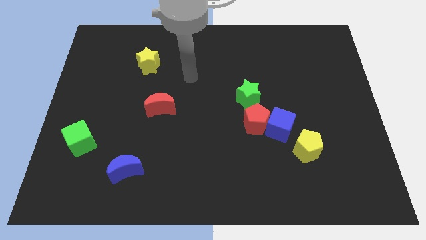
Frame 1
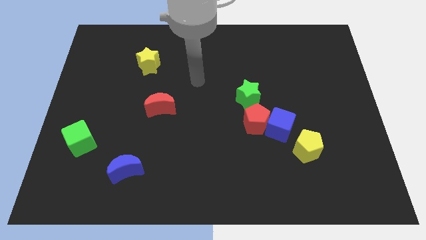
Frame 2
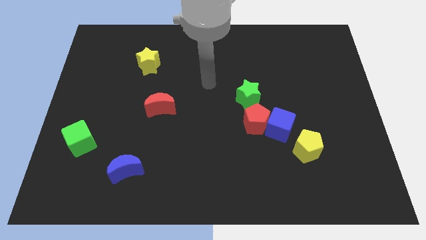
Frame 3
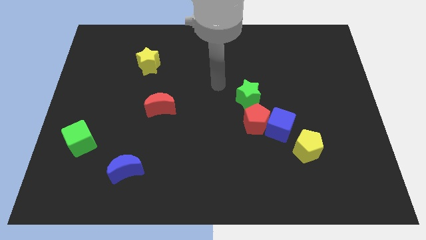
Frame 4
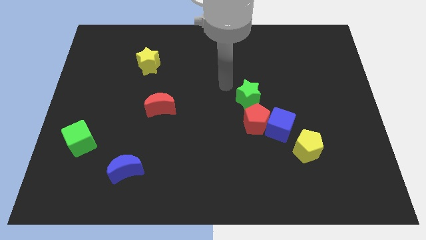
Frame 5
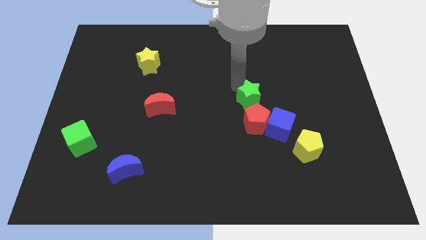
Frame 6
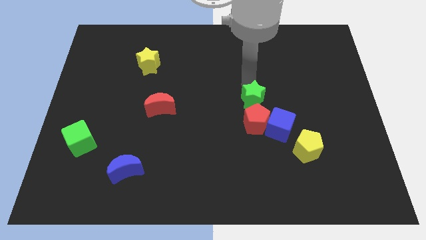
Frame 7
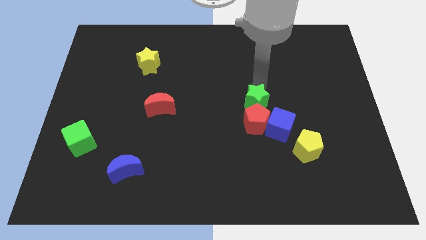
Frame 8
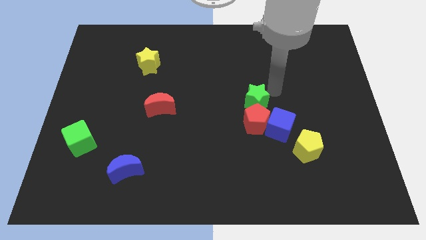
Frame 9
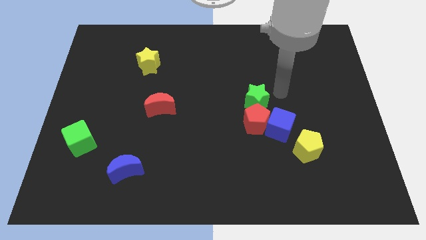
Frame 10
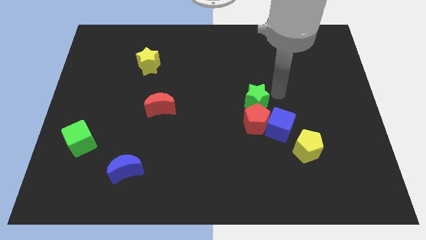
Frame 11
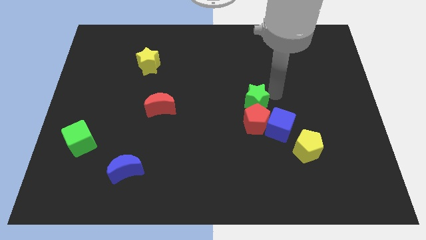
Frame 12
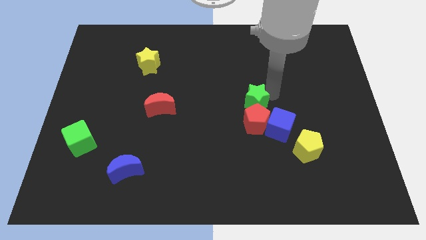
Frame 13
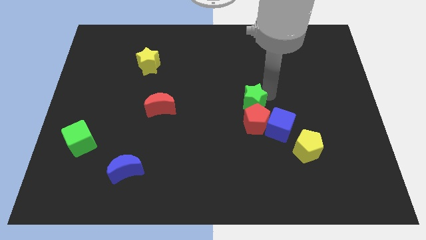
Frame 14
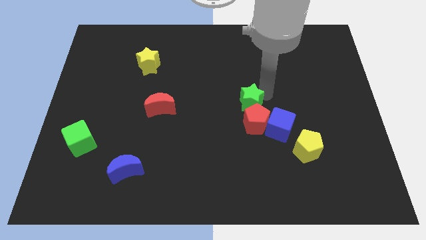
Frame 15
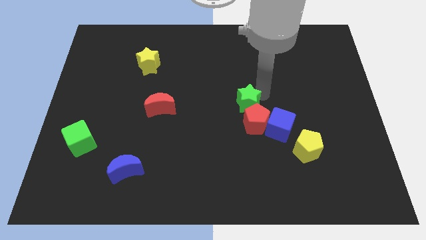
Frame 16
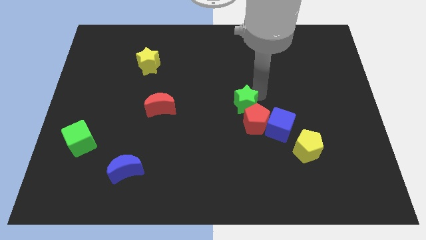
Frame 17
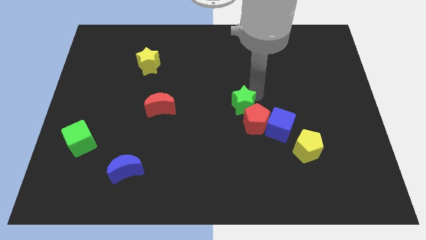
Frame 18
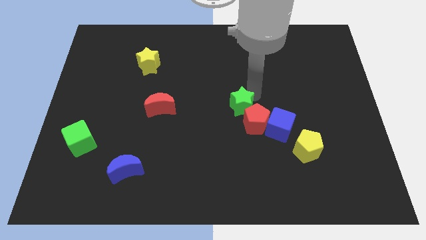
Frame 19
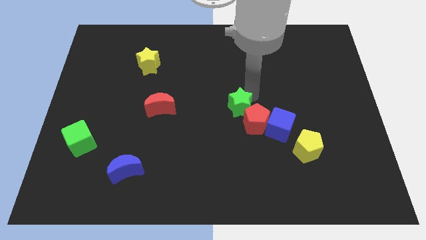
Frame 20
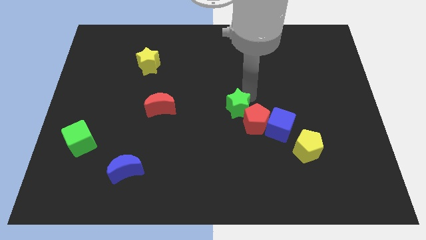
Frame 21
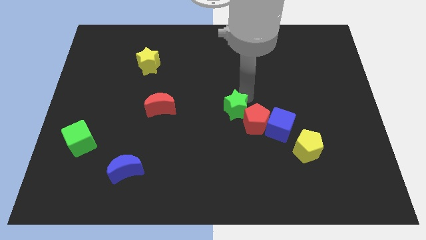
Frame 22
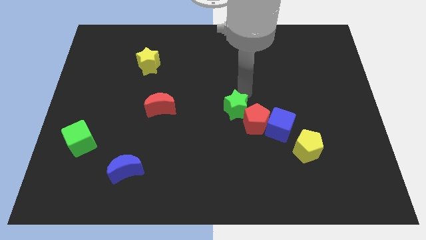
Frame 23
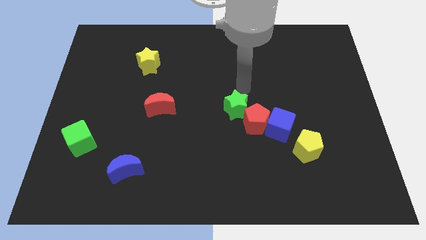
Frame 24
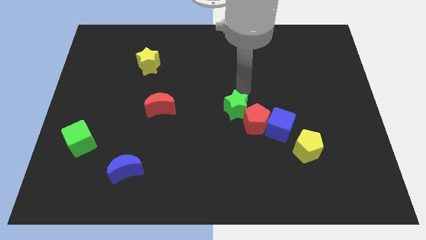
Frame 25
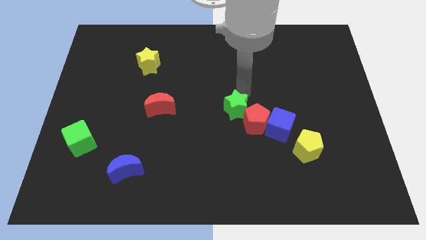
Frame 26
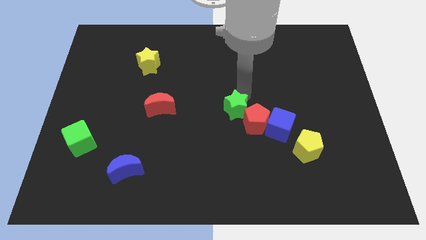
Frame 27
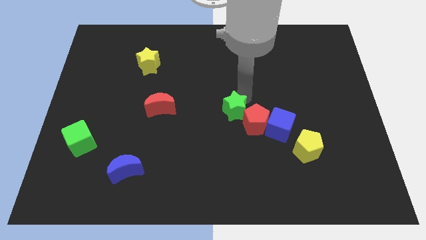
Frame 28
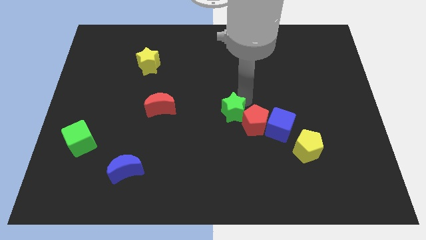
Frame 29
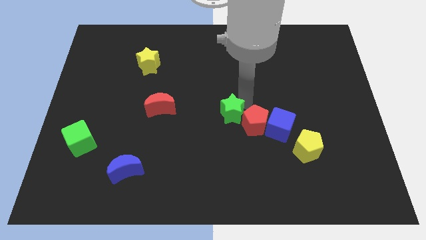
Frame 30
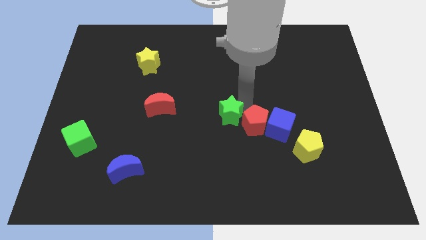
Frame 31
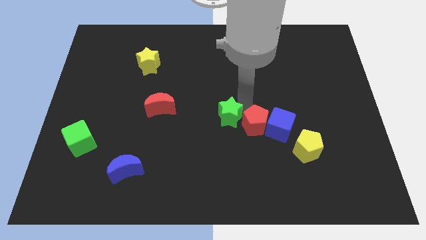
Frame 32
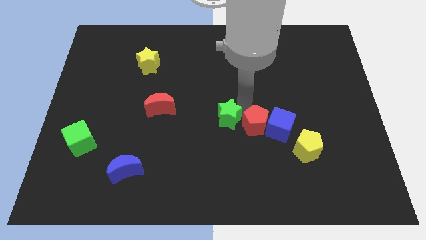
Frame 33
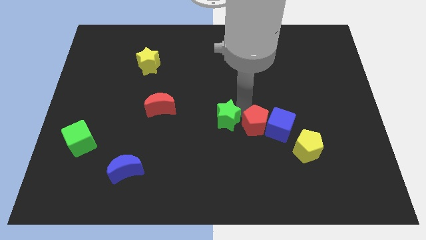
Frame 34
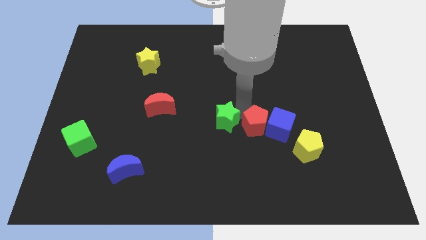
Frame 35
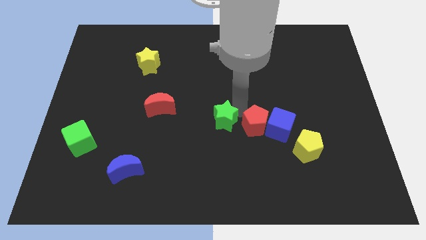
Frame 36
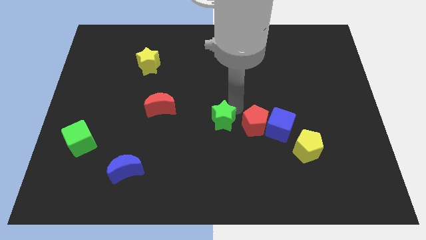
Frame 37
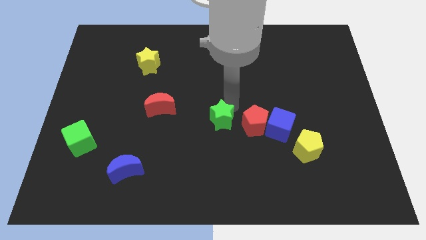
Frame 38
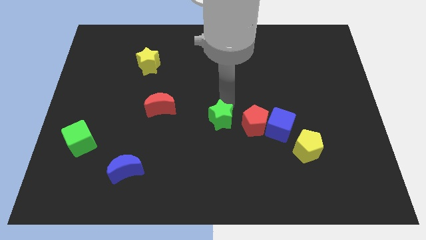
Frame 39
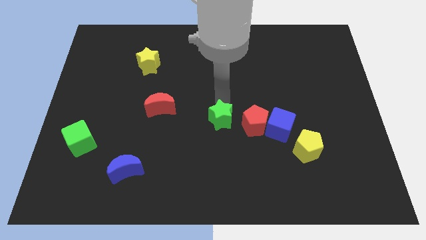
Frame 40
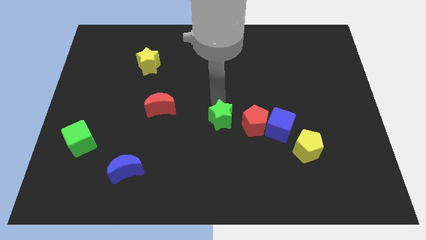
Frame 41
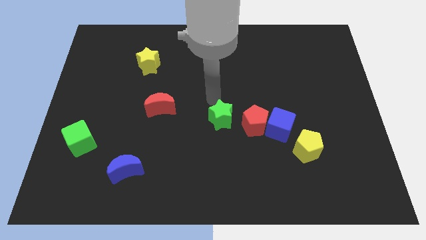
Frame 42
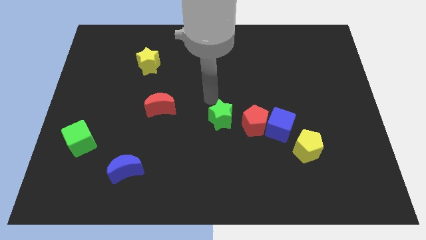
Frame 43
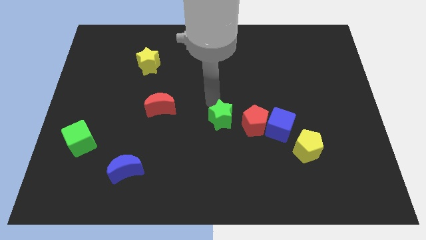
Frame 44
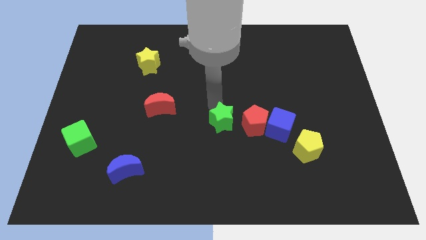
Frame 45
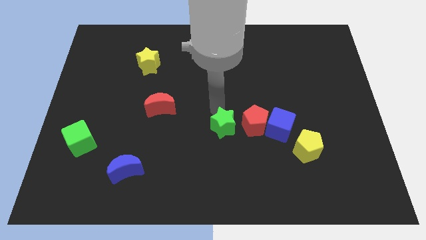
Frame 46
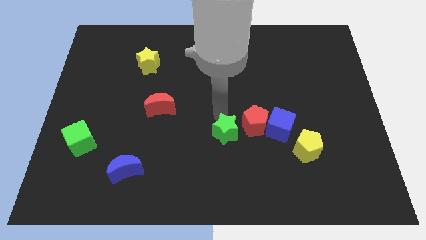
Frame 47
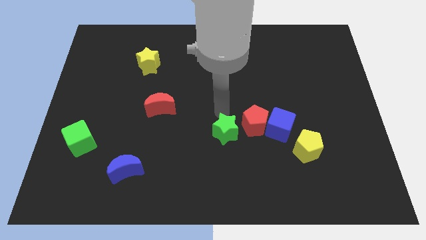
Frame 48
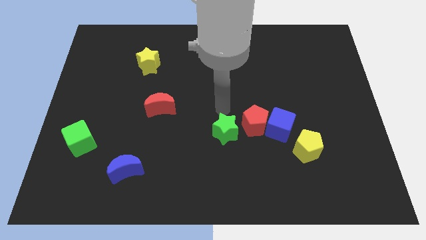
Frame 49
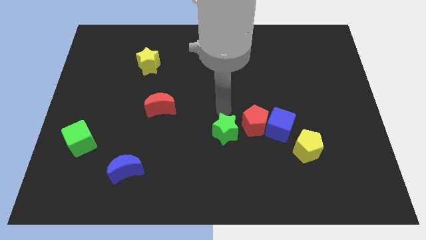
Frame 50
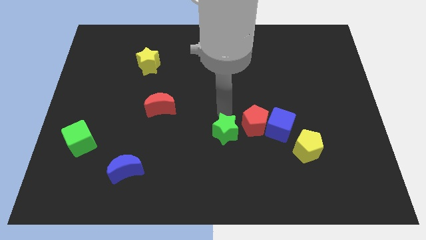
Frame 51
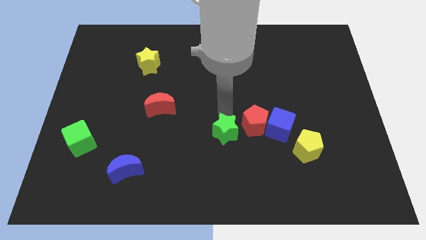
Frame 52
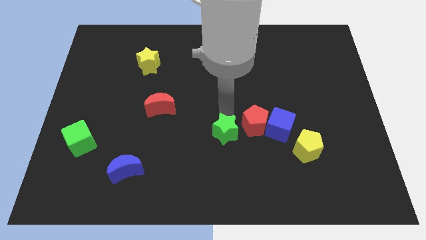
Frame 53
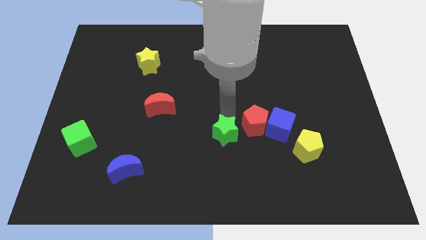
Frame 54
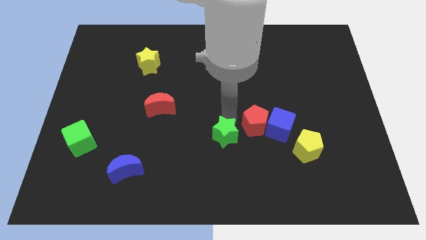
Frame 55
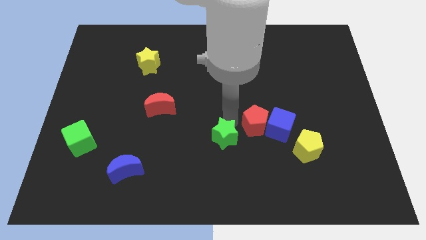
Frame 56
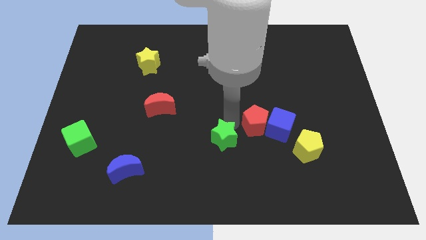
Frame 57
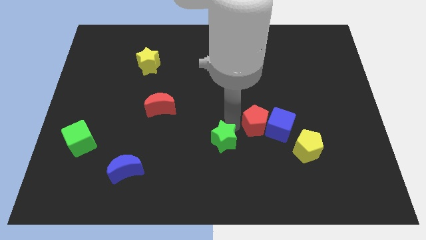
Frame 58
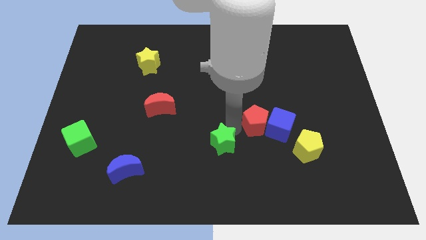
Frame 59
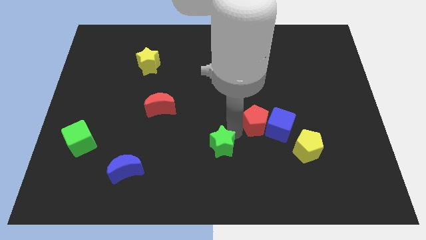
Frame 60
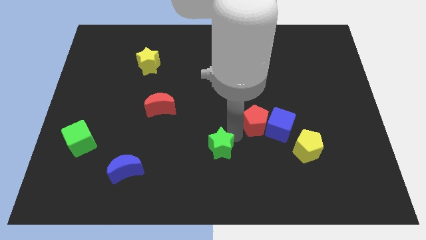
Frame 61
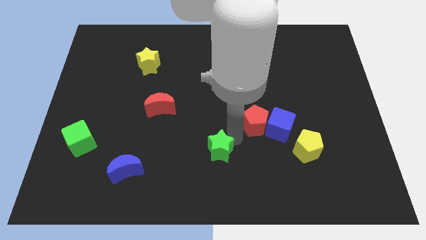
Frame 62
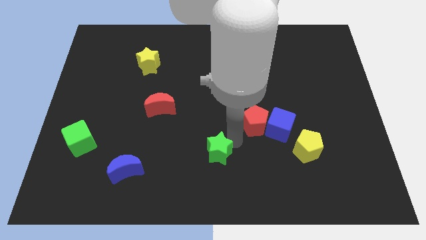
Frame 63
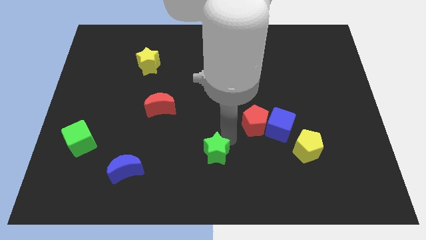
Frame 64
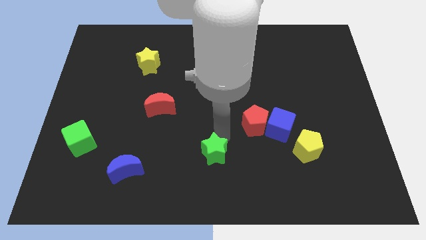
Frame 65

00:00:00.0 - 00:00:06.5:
push the green star to the bottom
